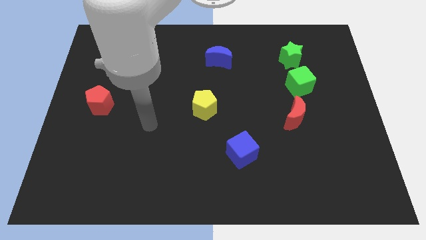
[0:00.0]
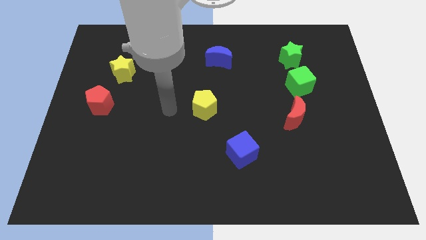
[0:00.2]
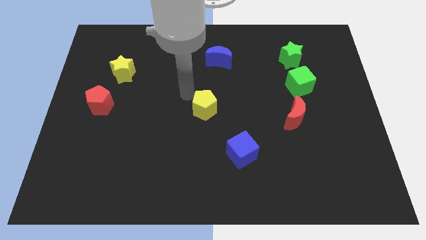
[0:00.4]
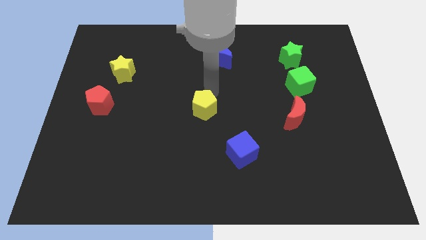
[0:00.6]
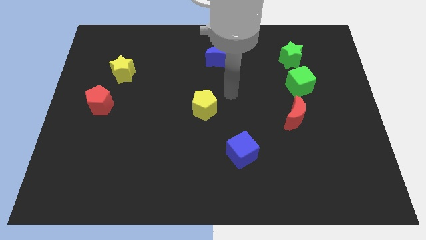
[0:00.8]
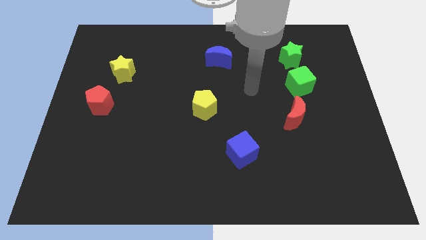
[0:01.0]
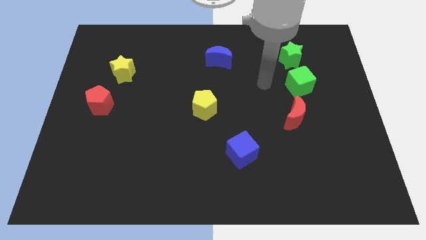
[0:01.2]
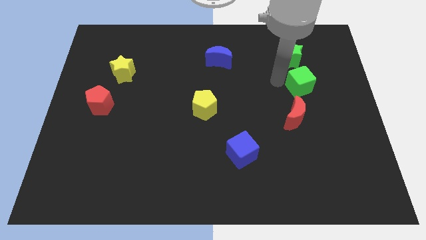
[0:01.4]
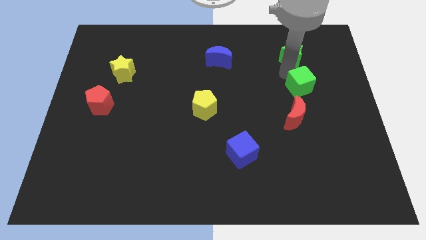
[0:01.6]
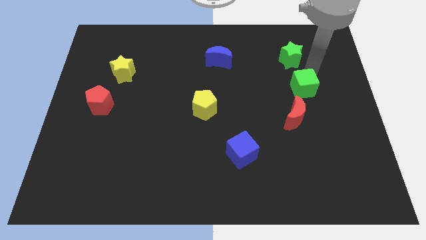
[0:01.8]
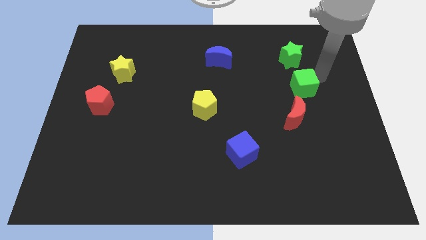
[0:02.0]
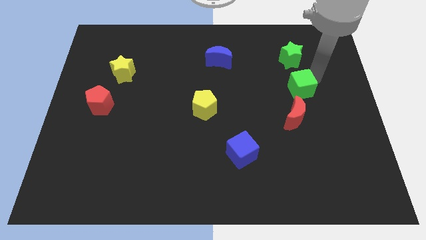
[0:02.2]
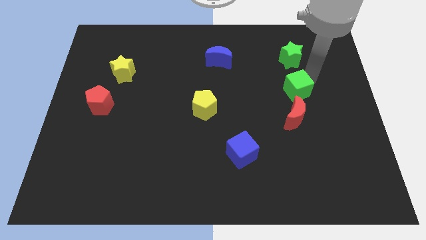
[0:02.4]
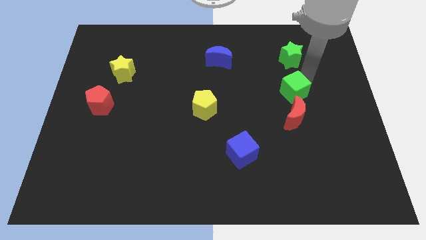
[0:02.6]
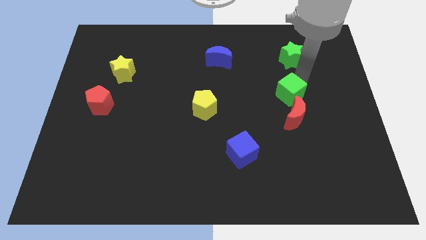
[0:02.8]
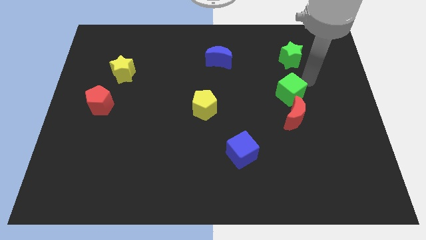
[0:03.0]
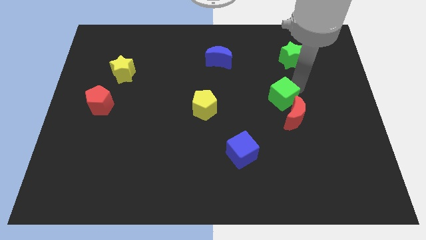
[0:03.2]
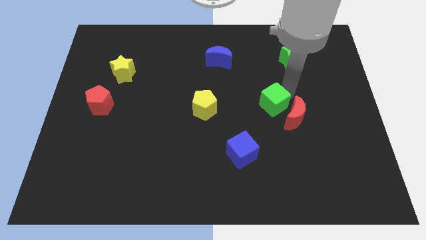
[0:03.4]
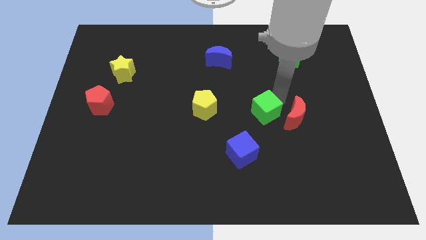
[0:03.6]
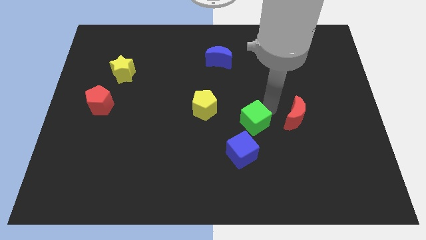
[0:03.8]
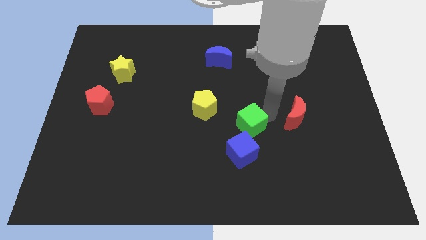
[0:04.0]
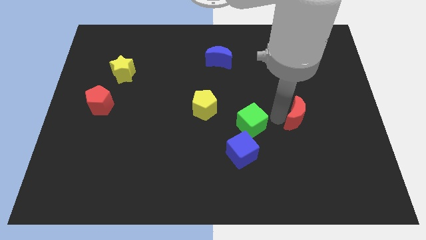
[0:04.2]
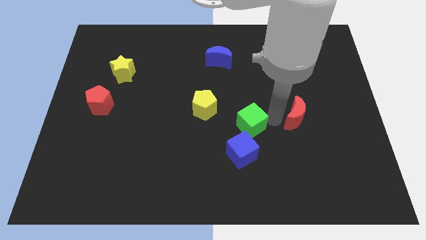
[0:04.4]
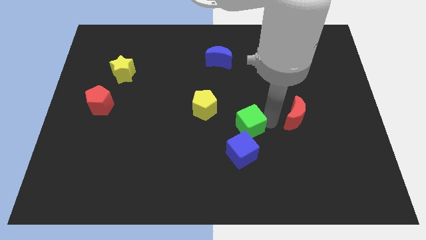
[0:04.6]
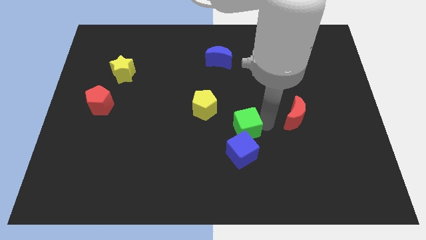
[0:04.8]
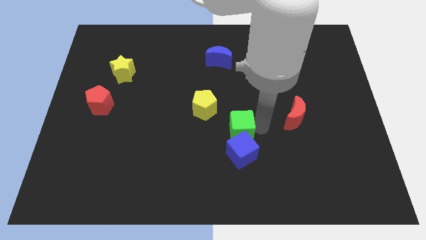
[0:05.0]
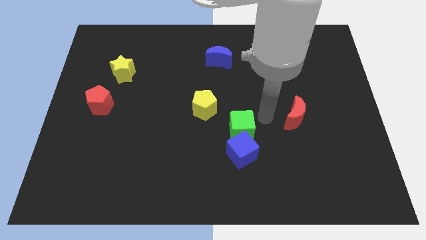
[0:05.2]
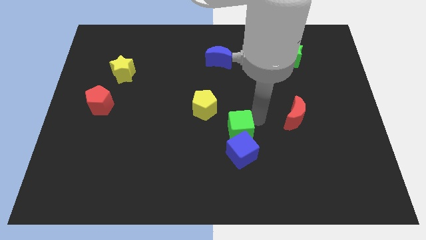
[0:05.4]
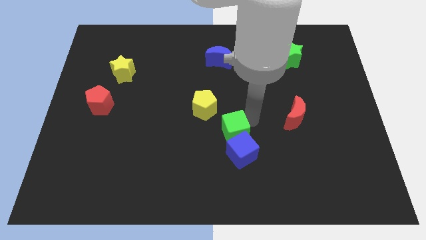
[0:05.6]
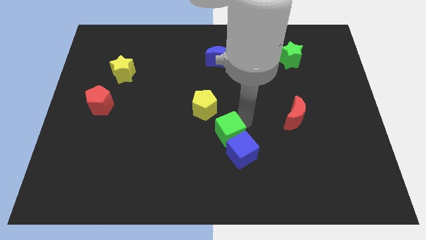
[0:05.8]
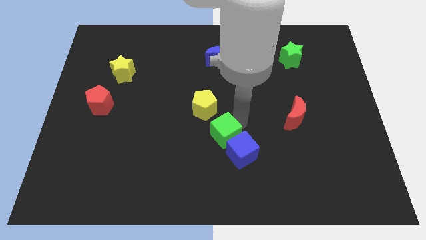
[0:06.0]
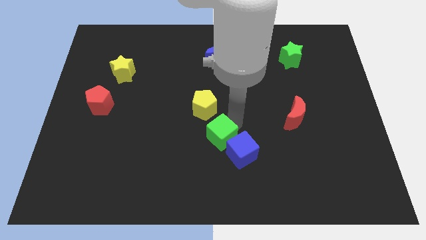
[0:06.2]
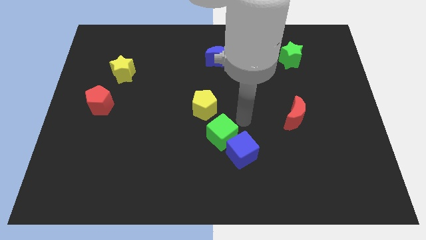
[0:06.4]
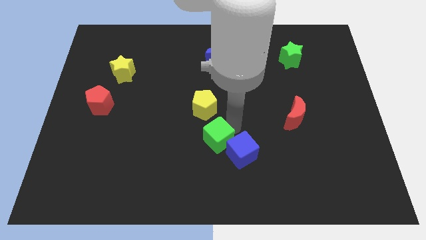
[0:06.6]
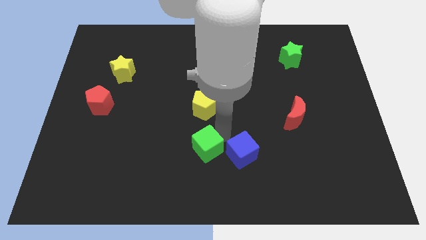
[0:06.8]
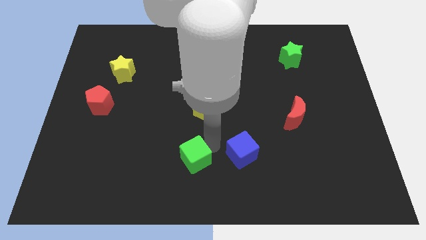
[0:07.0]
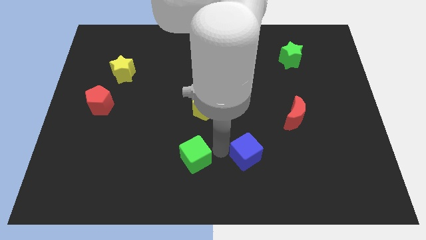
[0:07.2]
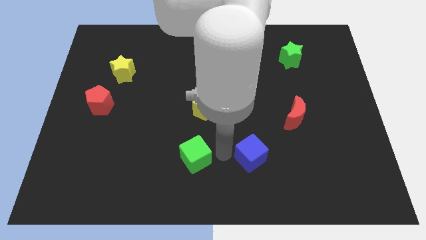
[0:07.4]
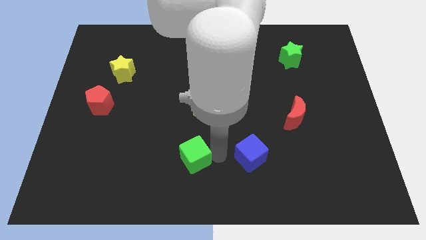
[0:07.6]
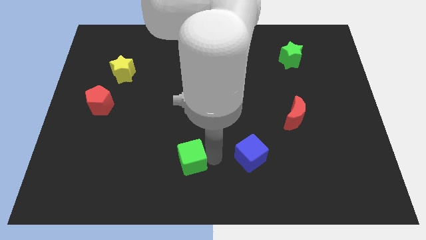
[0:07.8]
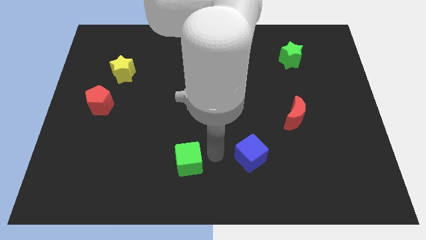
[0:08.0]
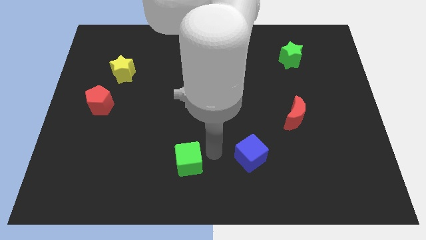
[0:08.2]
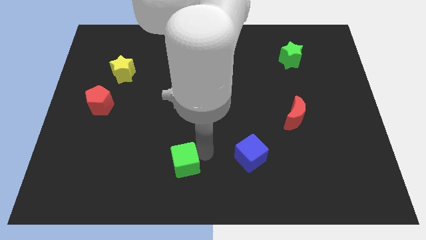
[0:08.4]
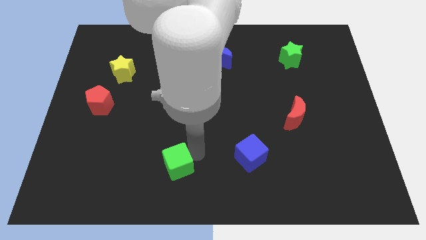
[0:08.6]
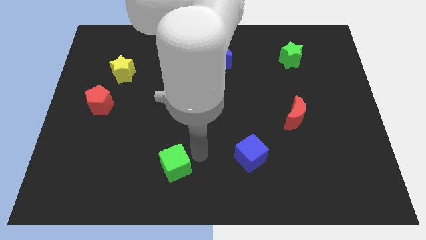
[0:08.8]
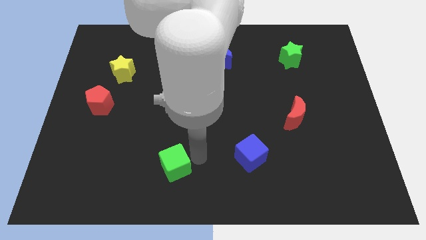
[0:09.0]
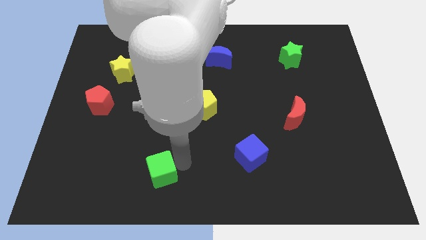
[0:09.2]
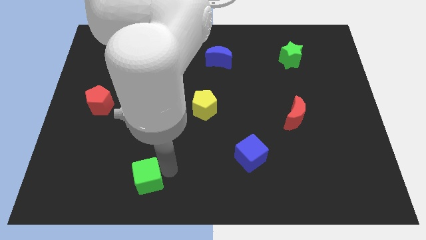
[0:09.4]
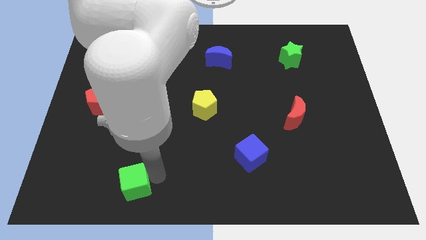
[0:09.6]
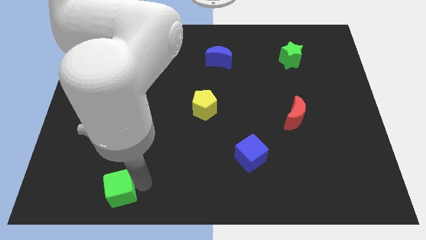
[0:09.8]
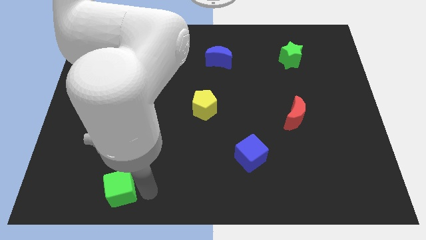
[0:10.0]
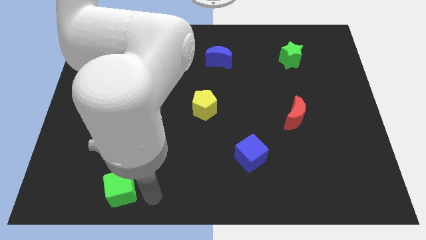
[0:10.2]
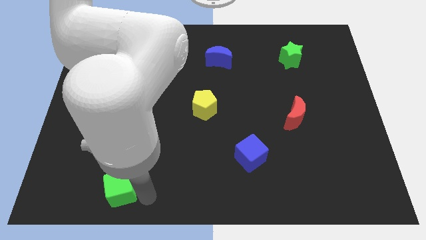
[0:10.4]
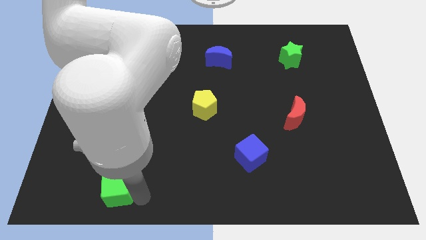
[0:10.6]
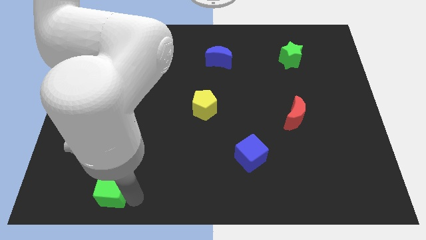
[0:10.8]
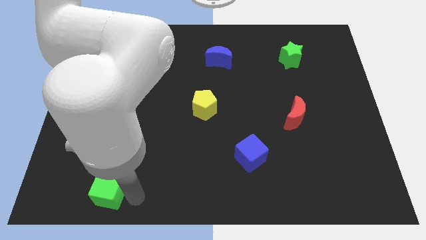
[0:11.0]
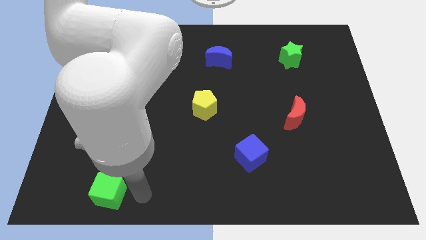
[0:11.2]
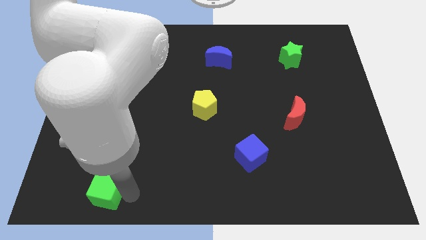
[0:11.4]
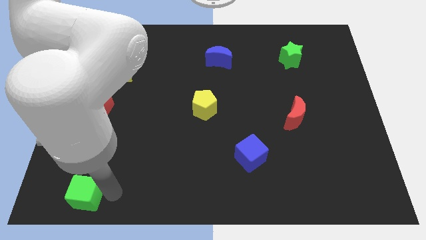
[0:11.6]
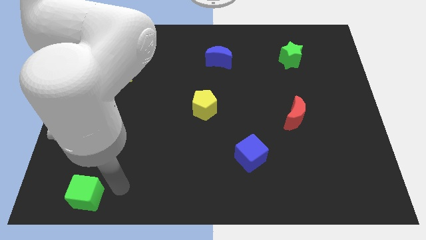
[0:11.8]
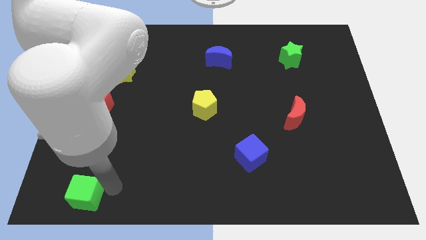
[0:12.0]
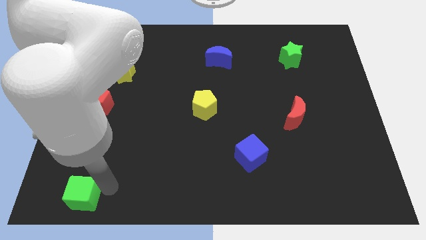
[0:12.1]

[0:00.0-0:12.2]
push the green cube to the bottom left
